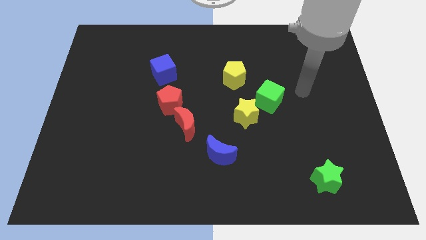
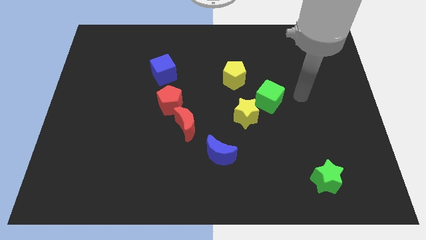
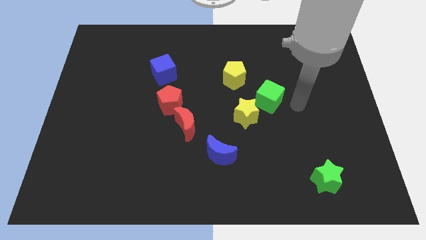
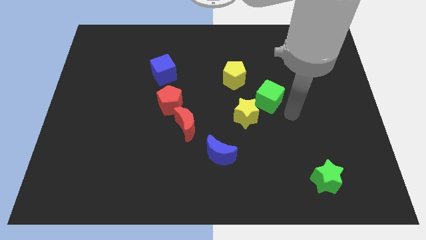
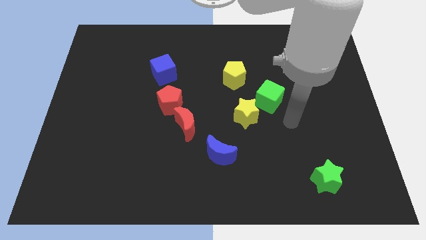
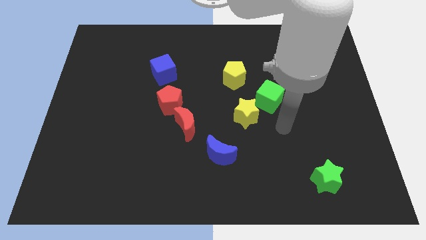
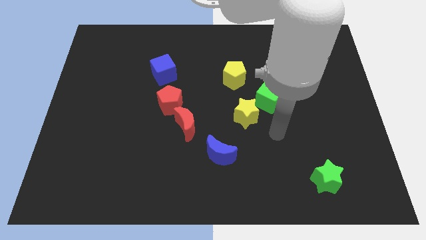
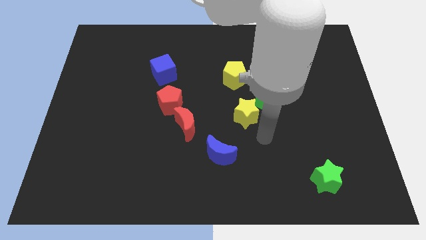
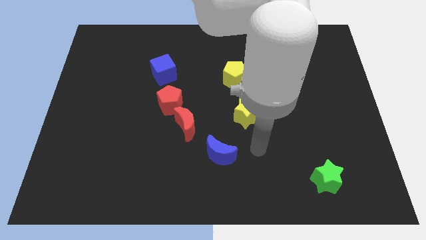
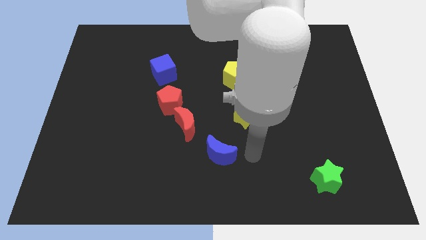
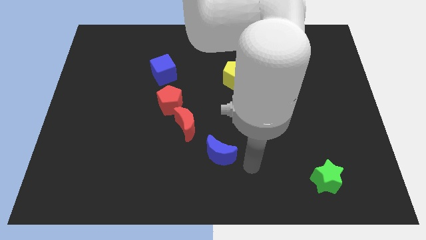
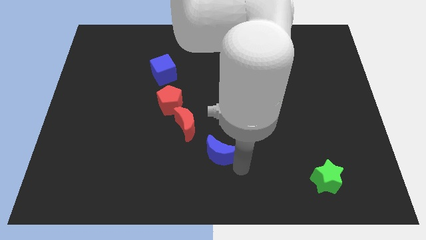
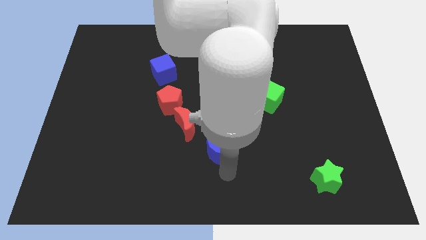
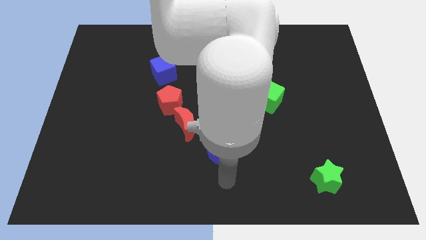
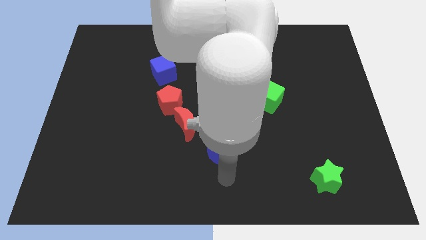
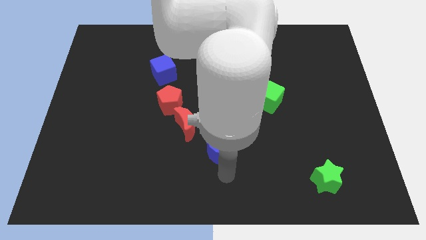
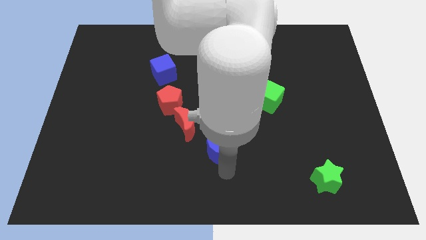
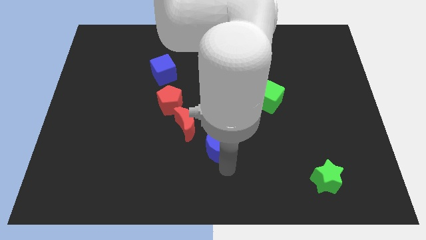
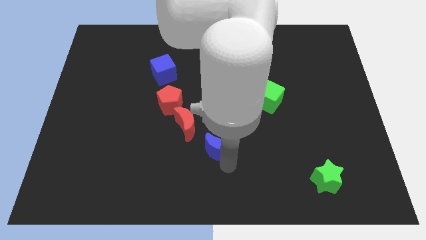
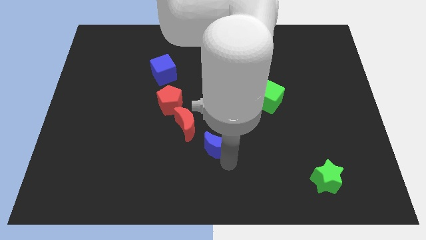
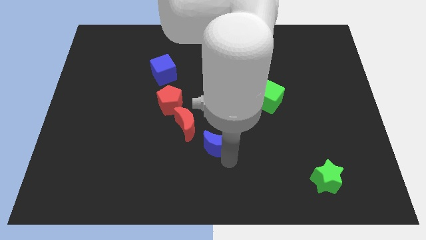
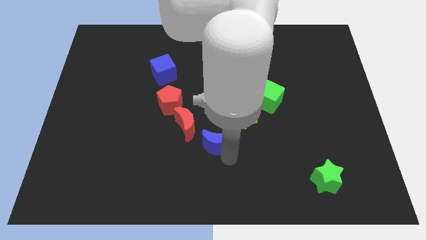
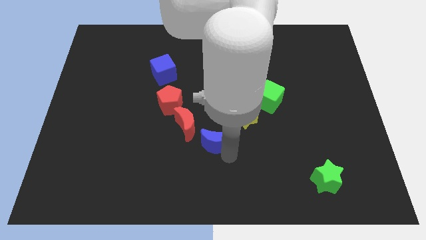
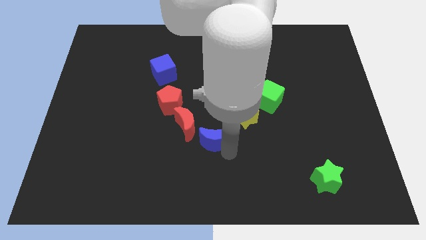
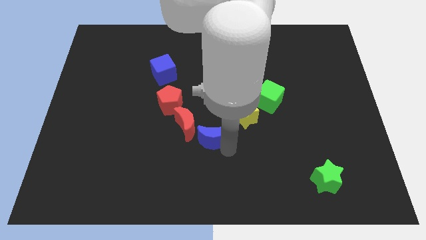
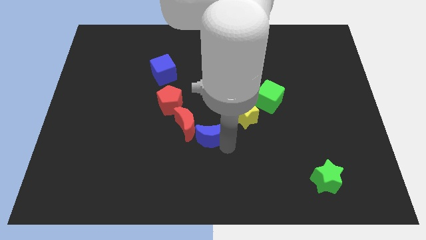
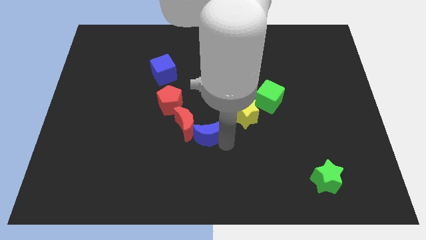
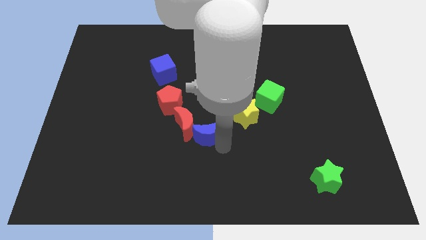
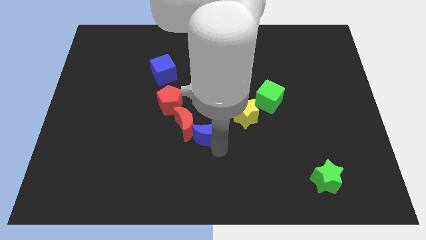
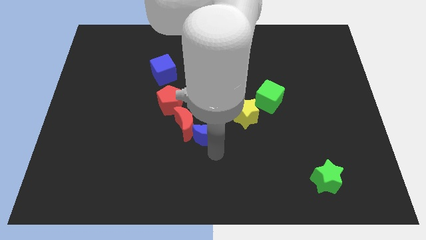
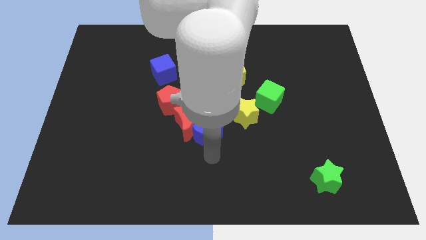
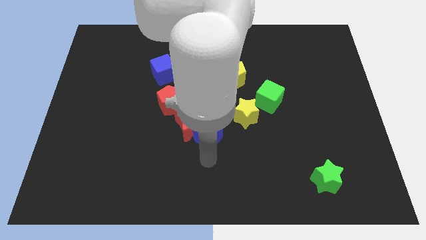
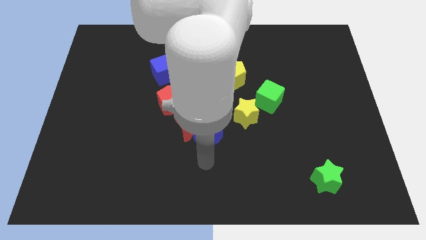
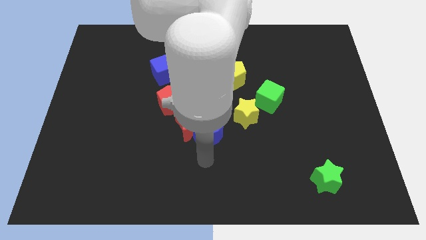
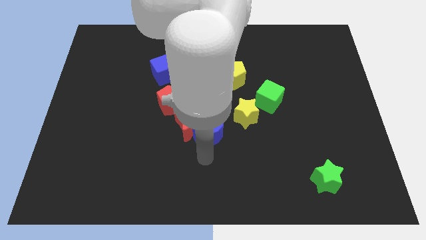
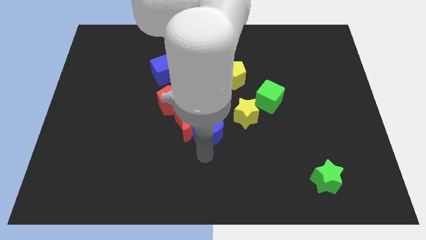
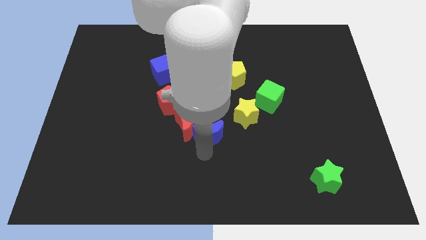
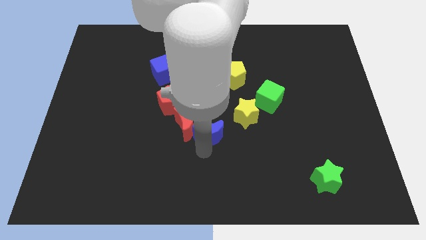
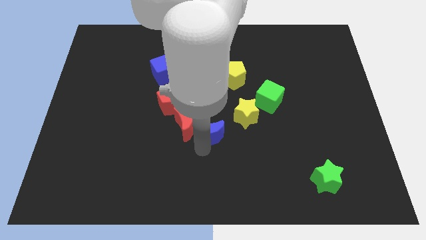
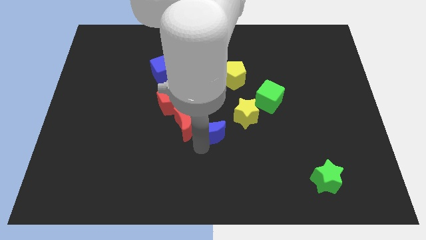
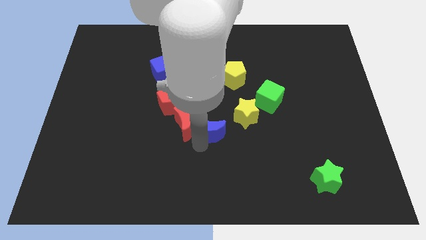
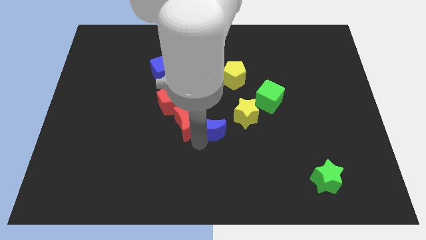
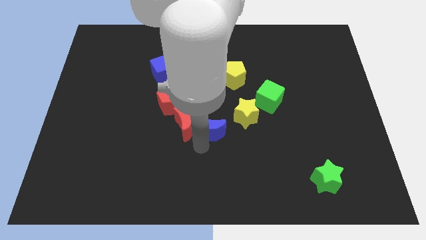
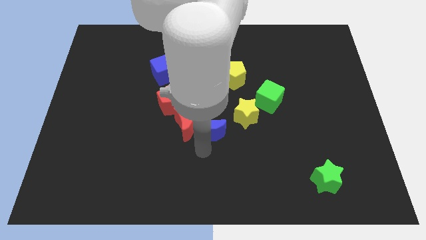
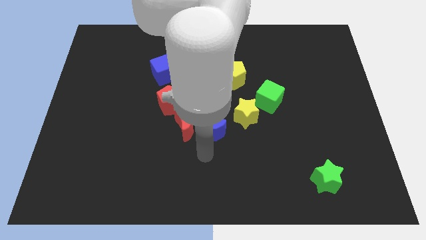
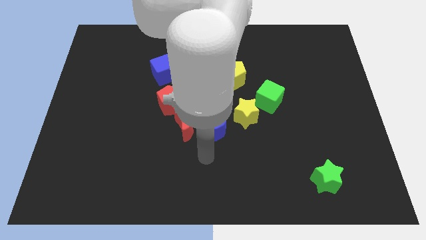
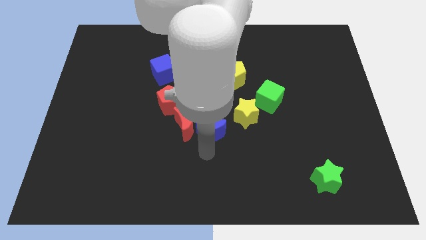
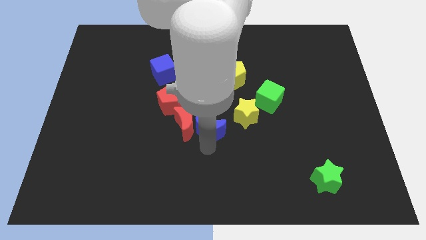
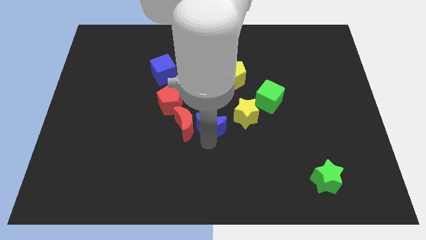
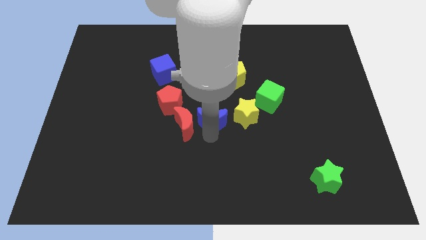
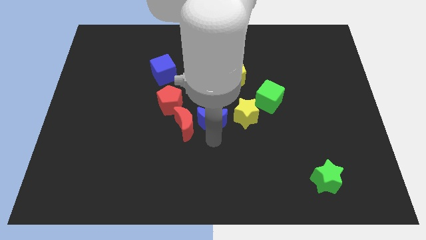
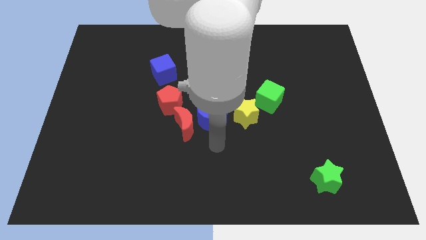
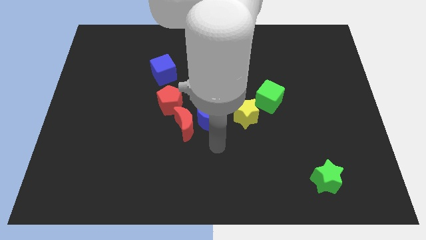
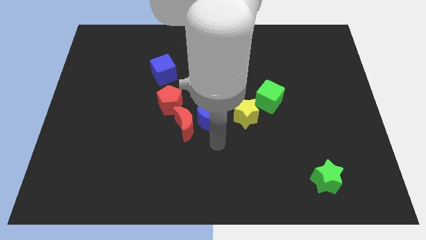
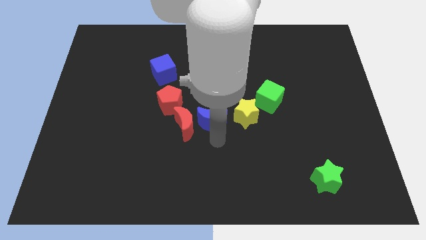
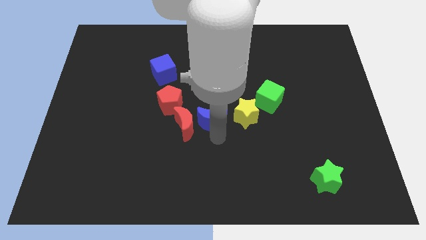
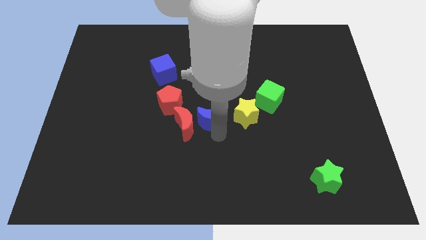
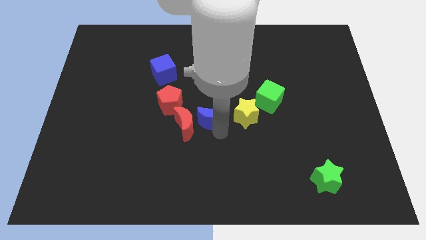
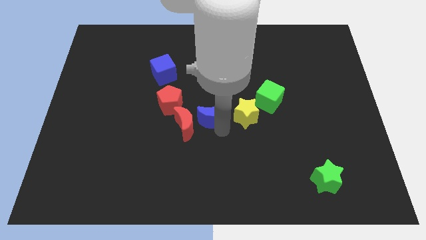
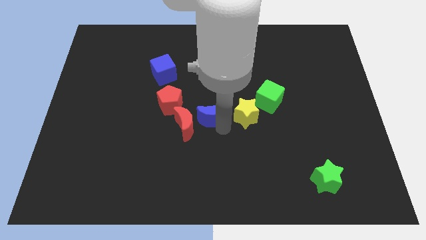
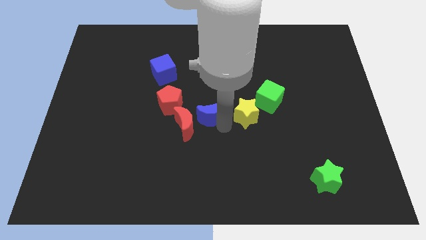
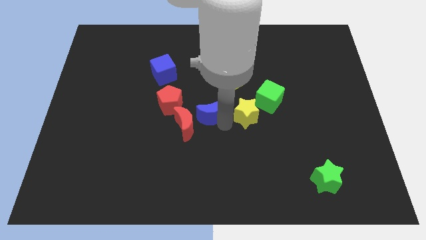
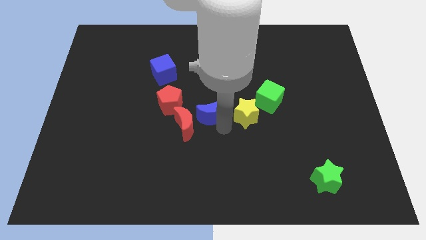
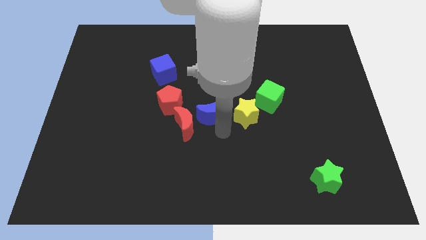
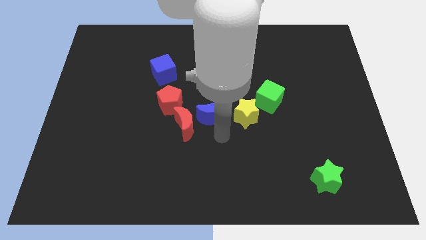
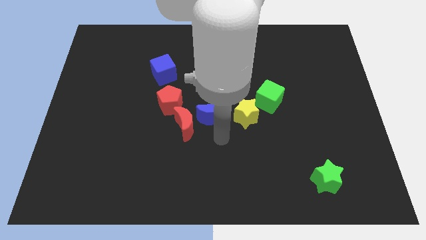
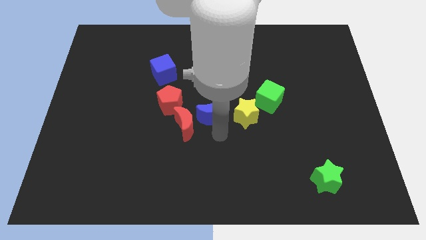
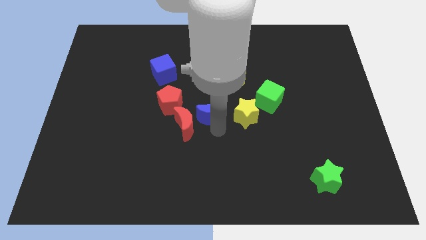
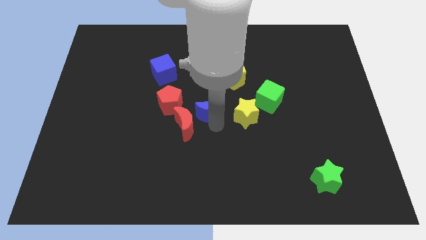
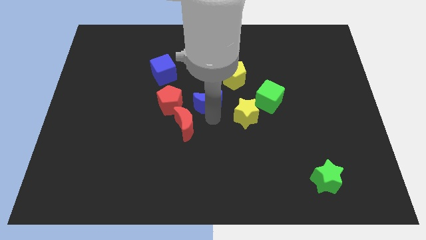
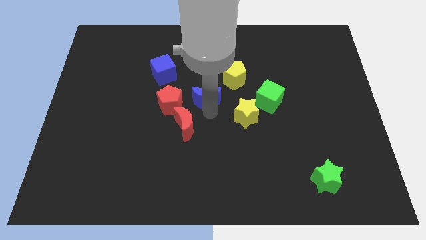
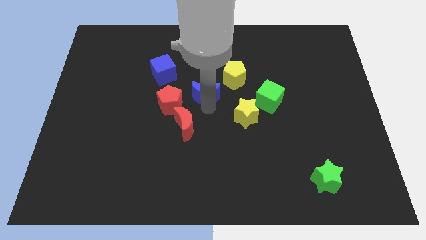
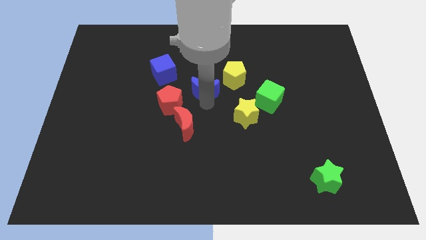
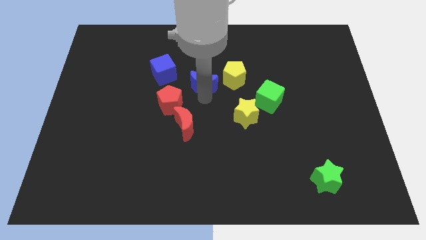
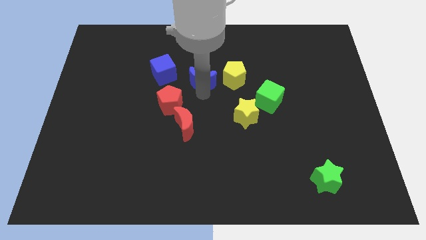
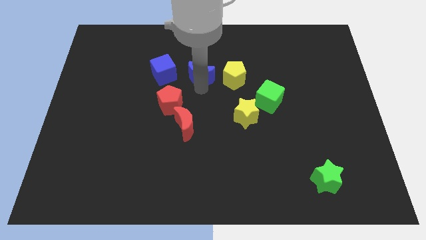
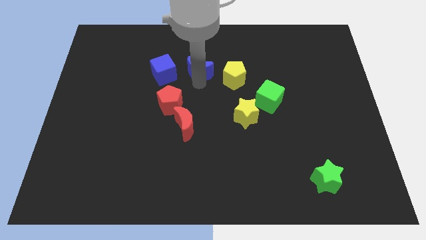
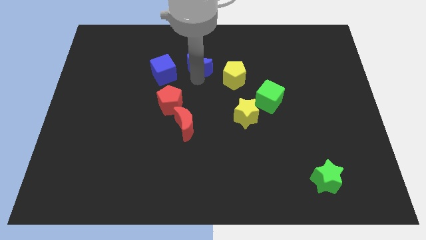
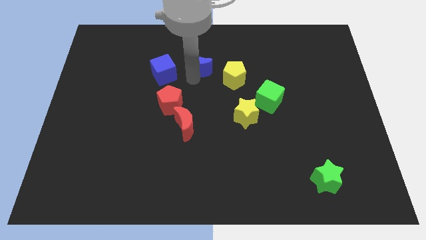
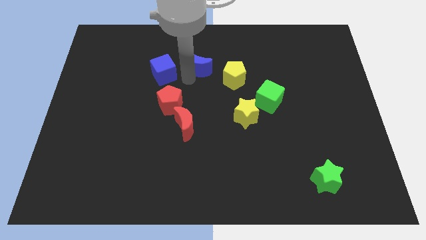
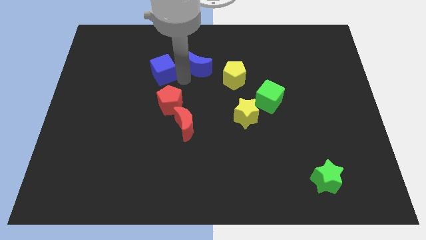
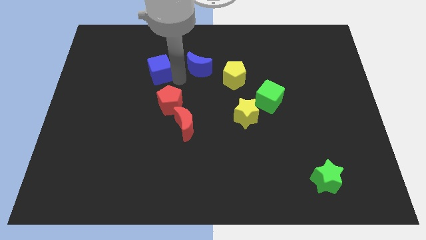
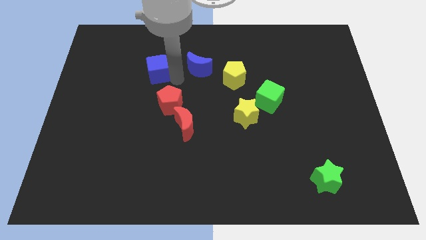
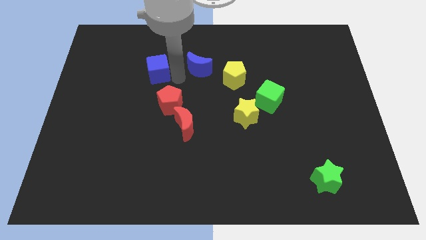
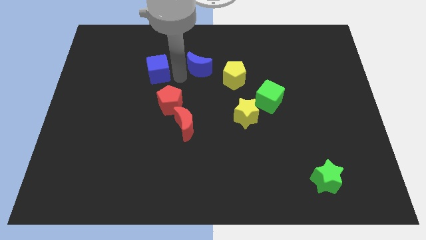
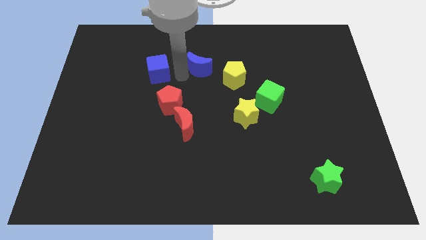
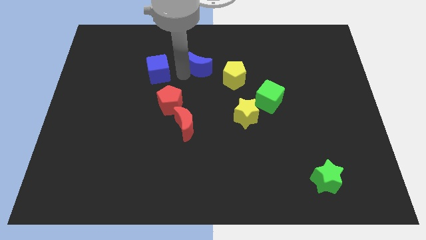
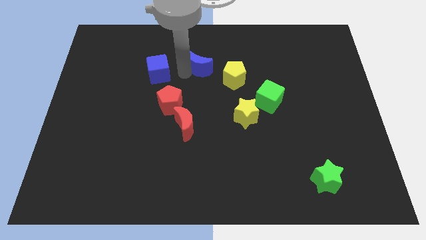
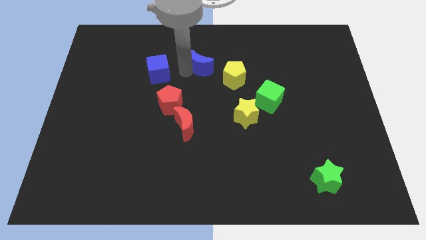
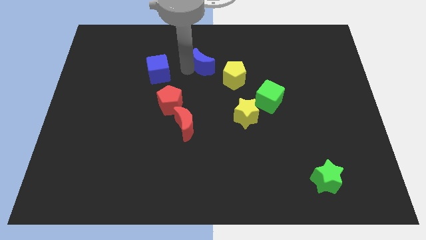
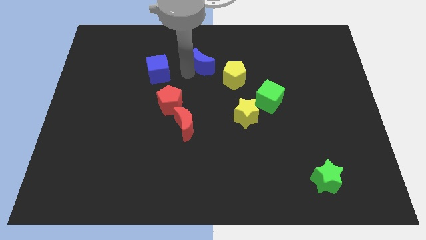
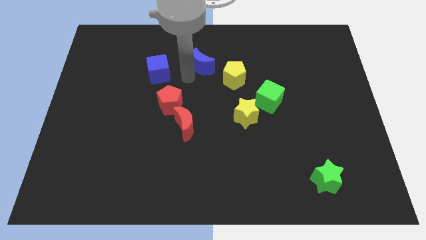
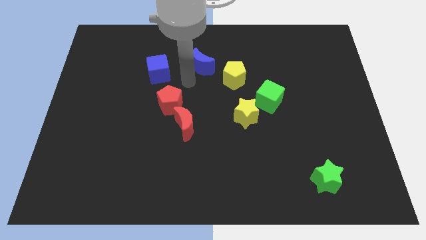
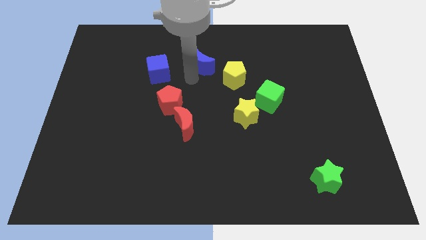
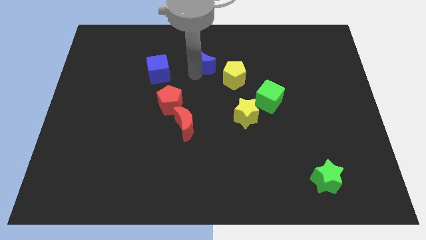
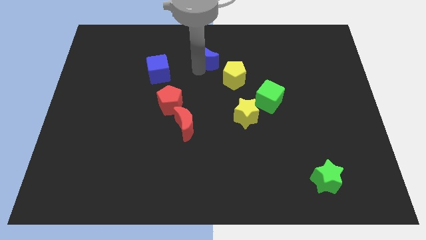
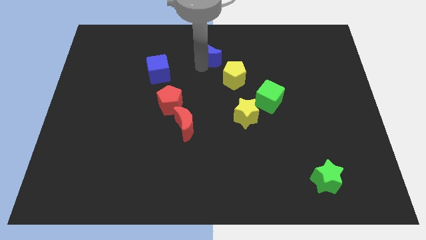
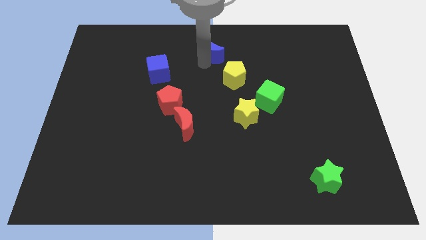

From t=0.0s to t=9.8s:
push the blue moon to the top side
